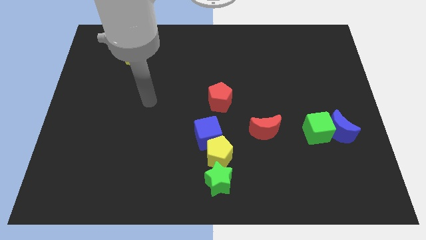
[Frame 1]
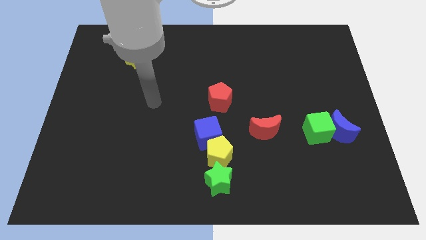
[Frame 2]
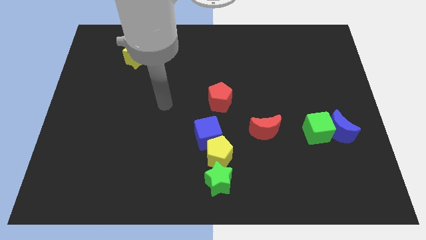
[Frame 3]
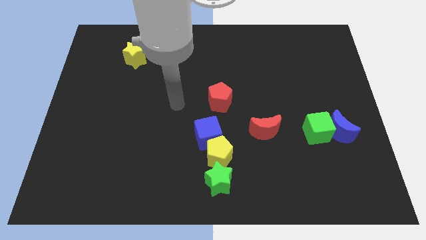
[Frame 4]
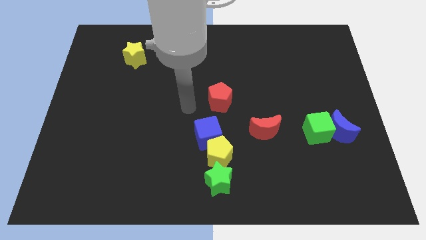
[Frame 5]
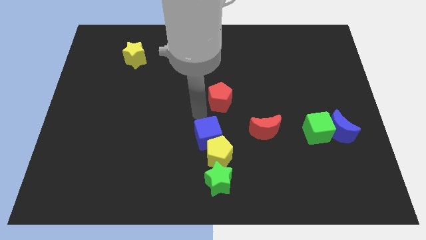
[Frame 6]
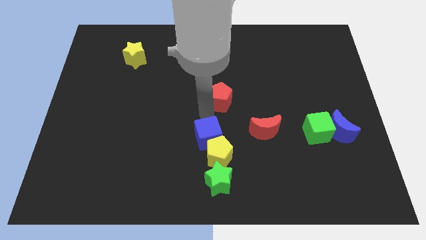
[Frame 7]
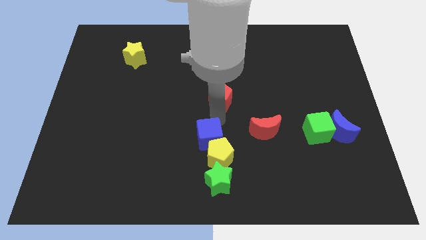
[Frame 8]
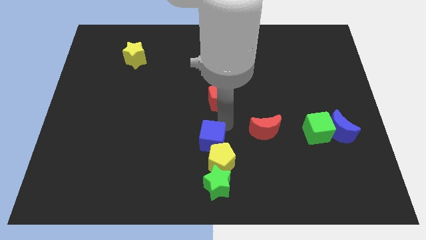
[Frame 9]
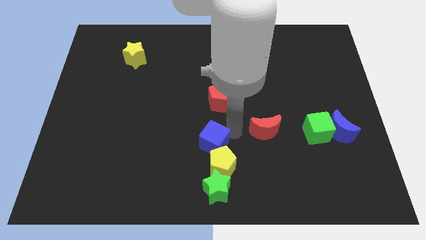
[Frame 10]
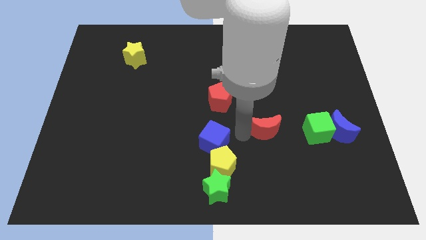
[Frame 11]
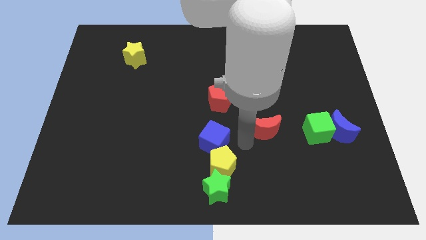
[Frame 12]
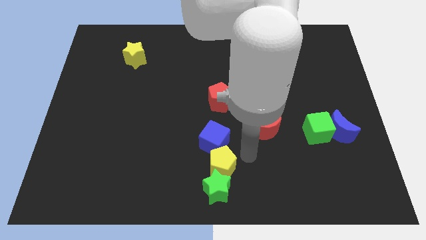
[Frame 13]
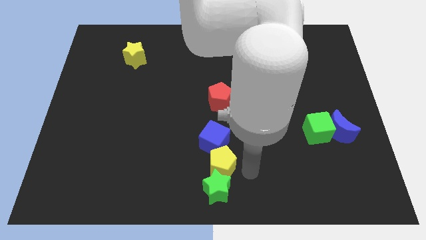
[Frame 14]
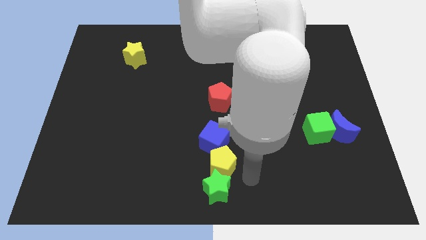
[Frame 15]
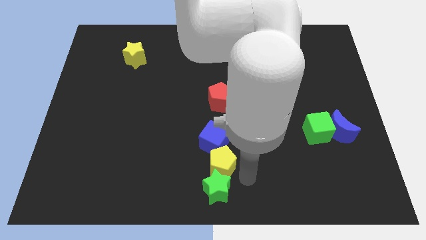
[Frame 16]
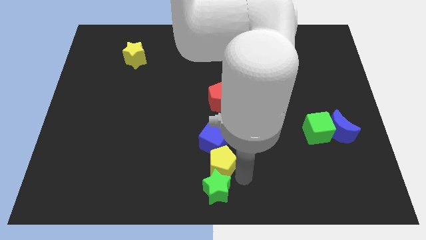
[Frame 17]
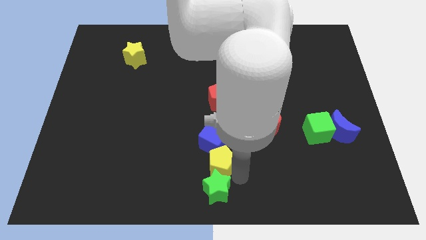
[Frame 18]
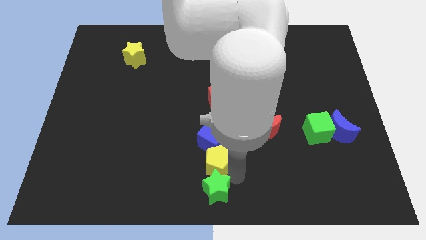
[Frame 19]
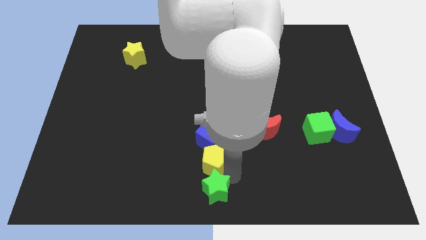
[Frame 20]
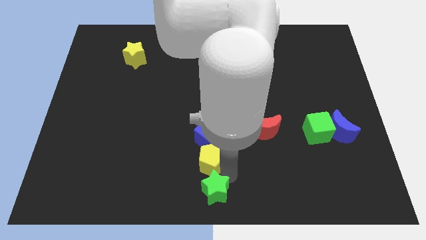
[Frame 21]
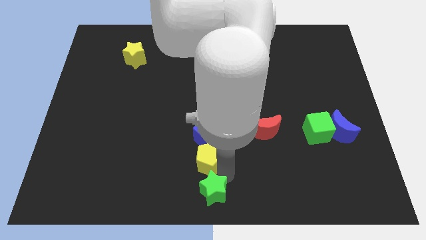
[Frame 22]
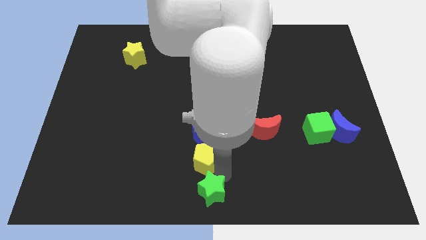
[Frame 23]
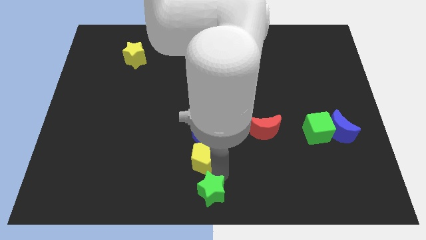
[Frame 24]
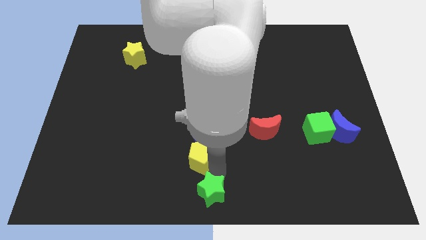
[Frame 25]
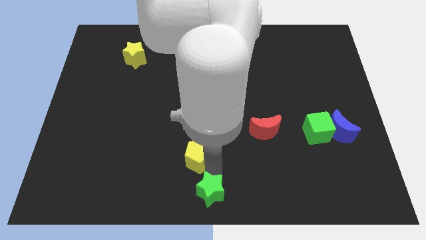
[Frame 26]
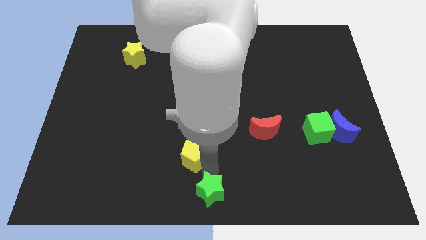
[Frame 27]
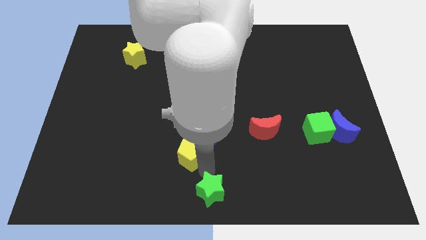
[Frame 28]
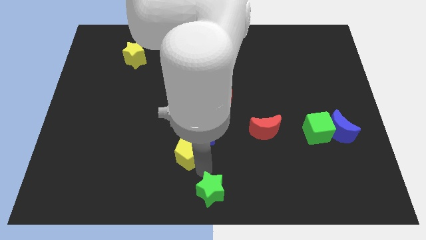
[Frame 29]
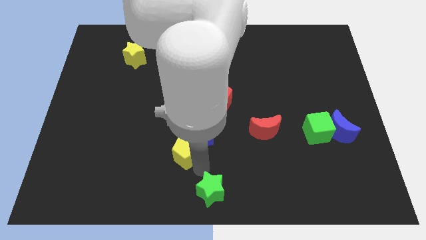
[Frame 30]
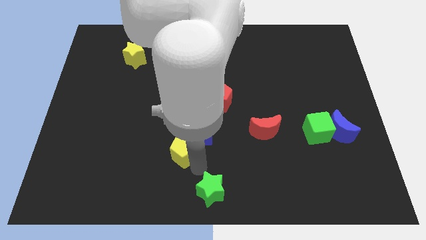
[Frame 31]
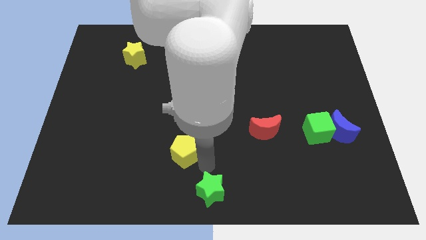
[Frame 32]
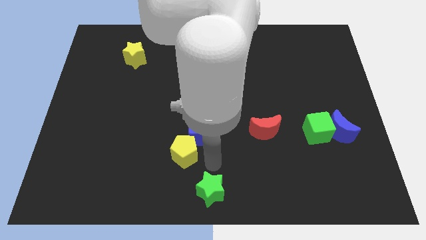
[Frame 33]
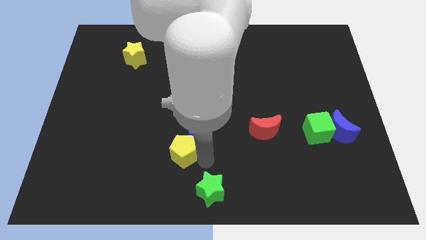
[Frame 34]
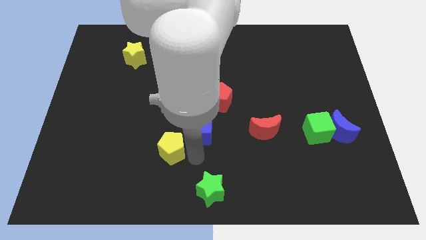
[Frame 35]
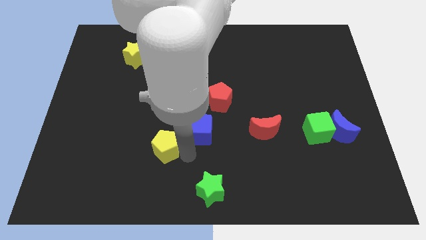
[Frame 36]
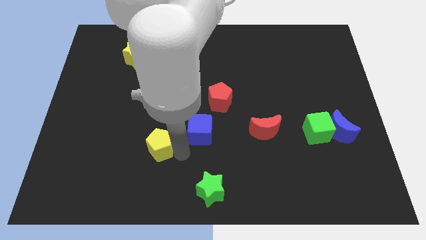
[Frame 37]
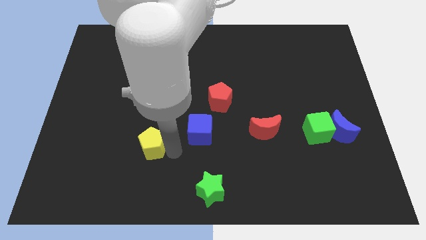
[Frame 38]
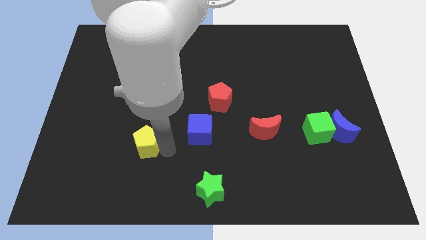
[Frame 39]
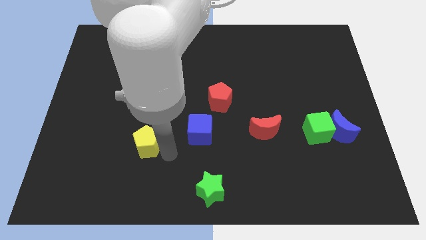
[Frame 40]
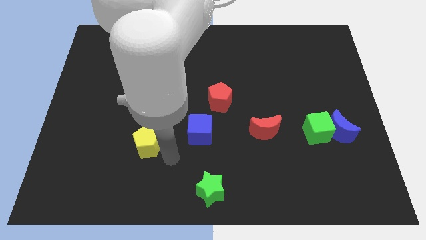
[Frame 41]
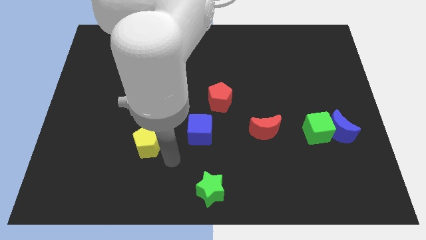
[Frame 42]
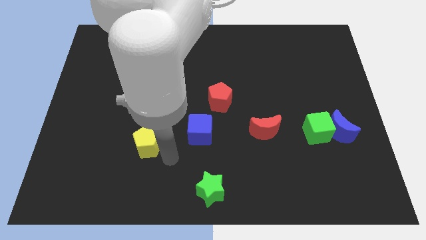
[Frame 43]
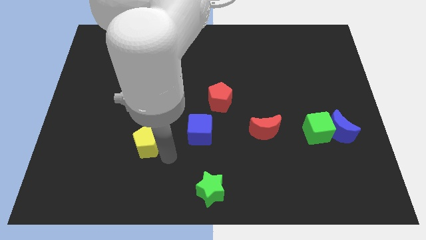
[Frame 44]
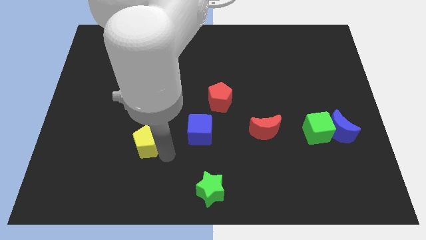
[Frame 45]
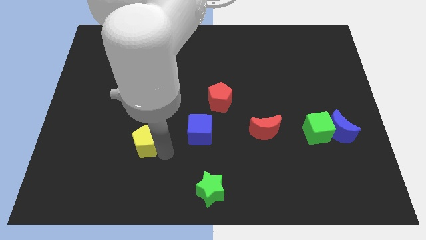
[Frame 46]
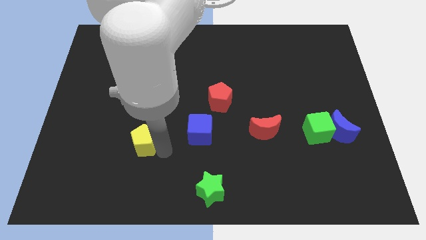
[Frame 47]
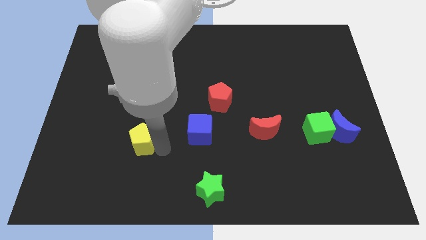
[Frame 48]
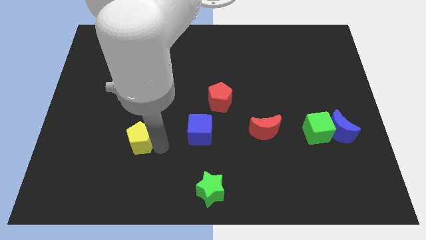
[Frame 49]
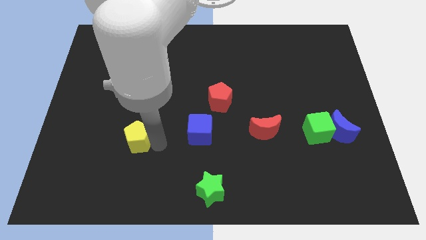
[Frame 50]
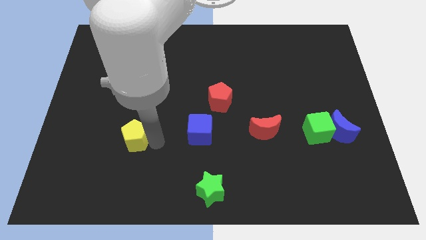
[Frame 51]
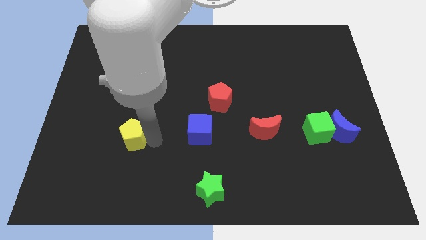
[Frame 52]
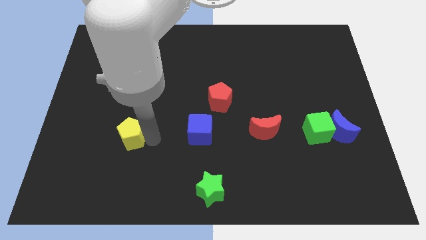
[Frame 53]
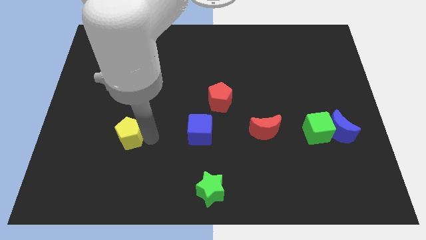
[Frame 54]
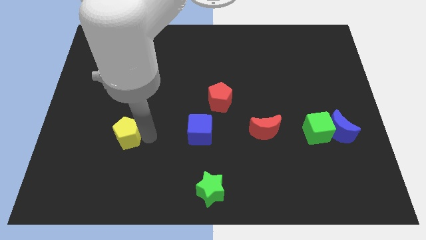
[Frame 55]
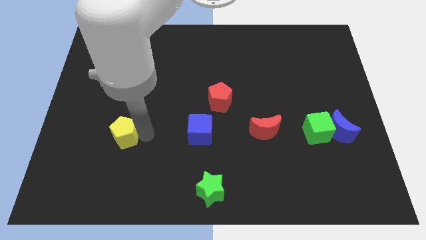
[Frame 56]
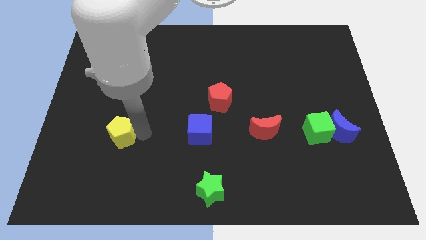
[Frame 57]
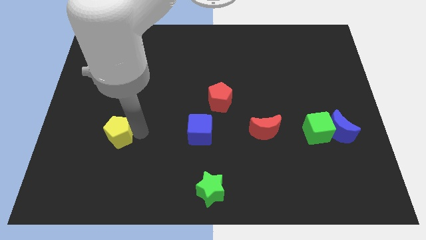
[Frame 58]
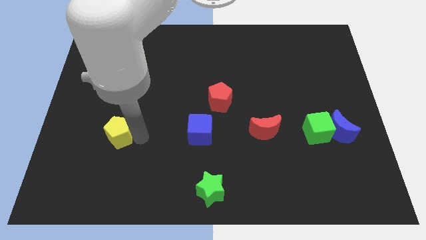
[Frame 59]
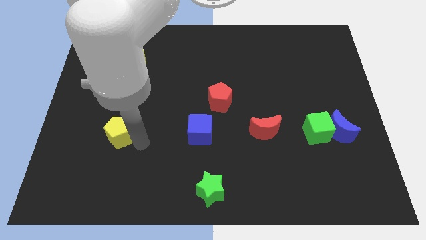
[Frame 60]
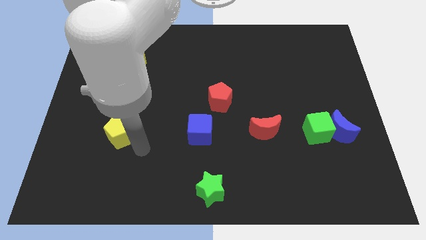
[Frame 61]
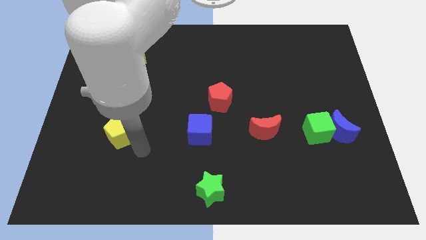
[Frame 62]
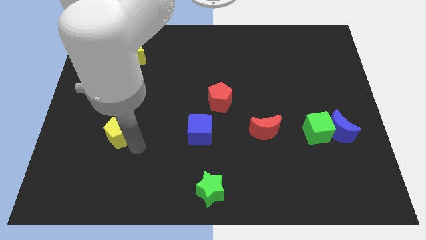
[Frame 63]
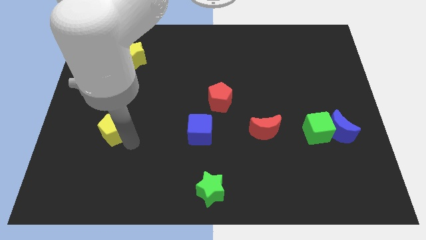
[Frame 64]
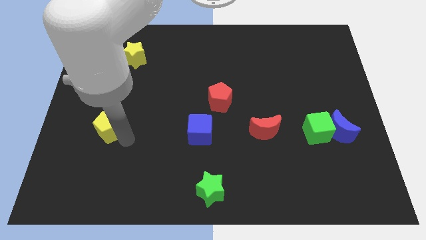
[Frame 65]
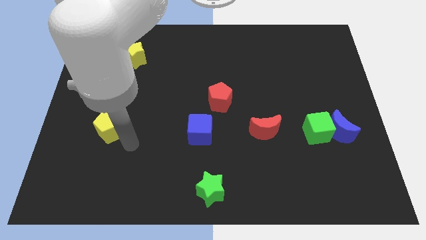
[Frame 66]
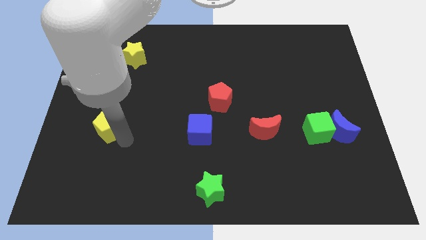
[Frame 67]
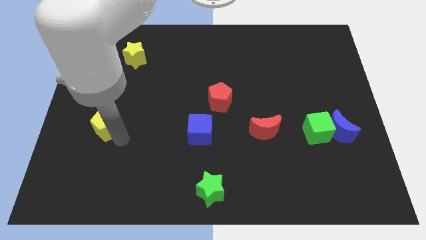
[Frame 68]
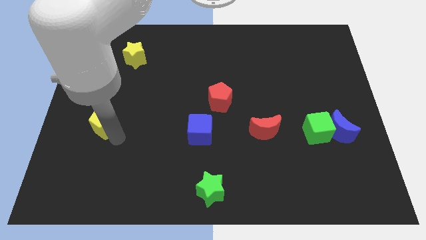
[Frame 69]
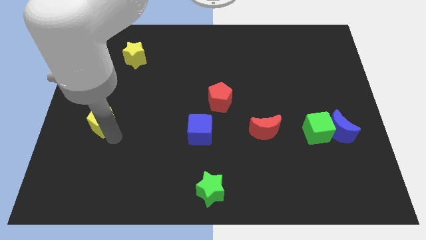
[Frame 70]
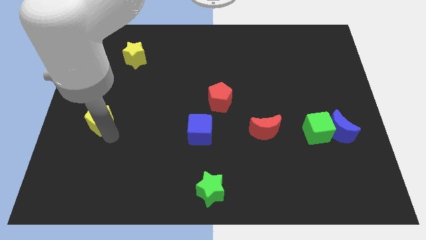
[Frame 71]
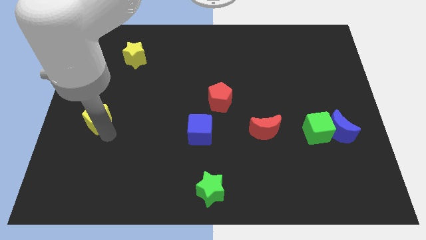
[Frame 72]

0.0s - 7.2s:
move the yellow pentagon to the left side
